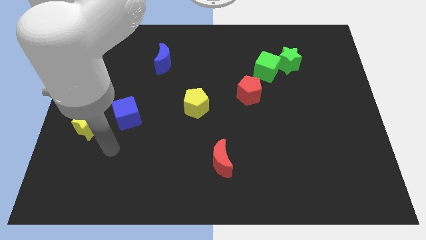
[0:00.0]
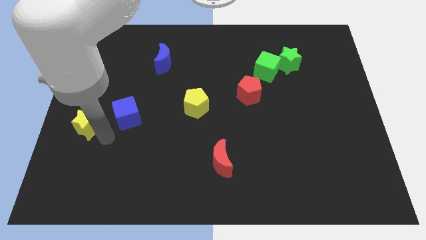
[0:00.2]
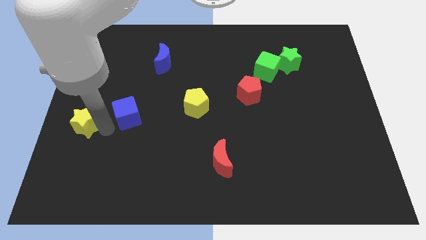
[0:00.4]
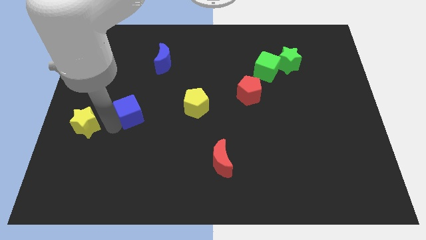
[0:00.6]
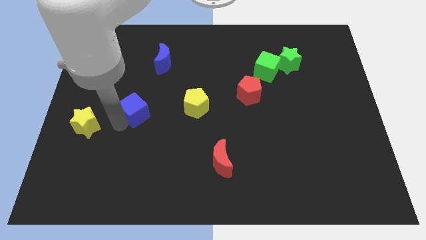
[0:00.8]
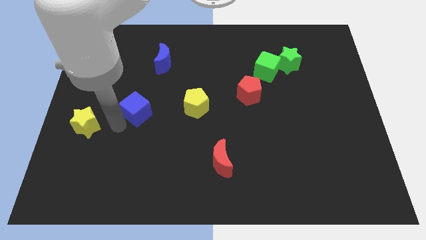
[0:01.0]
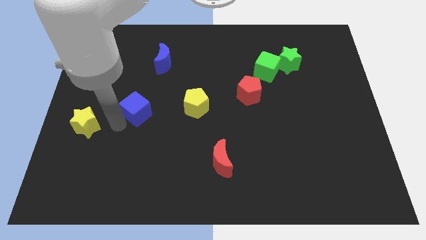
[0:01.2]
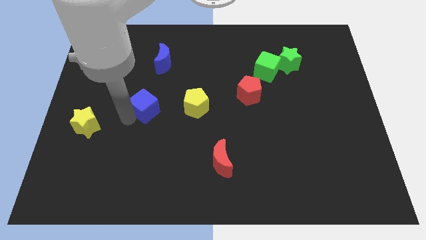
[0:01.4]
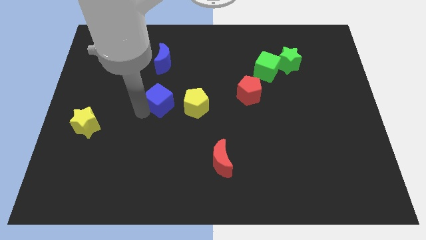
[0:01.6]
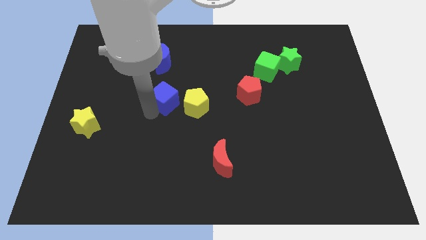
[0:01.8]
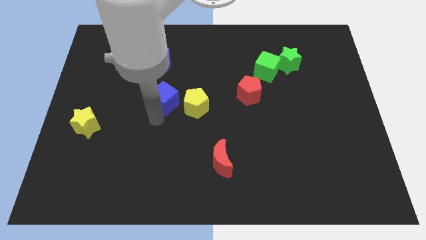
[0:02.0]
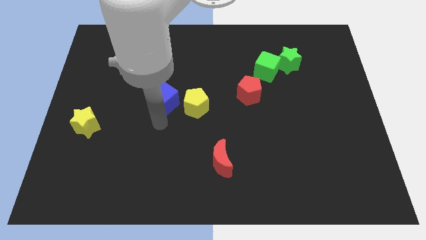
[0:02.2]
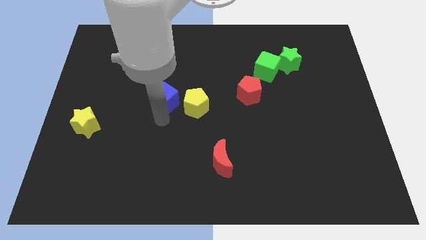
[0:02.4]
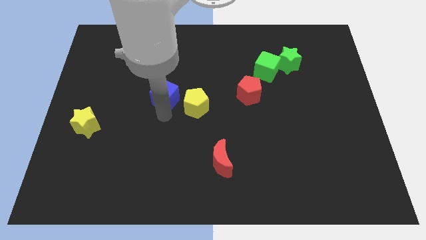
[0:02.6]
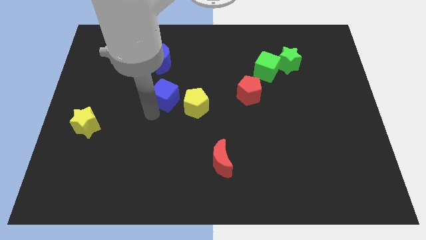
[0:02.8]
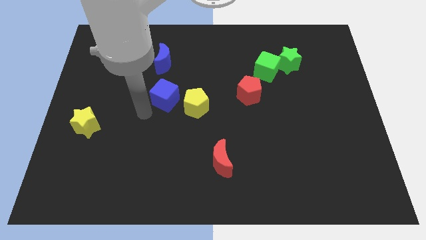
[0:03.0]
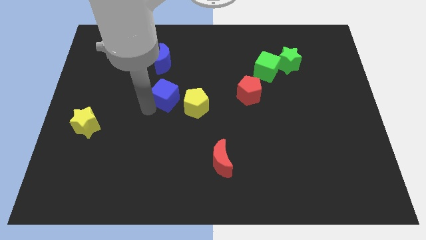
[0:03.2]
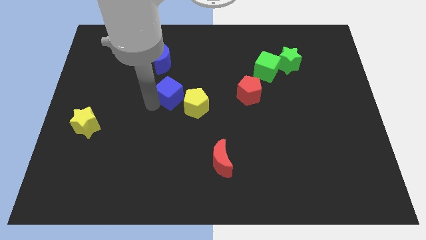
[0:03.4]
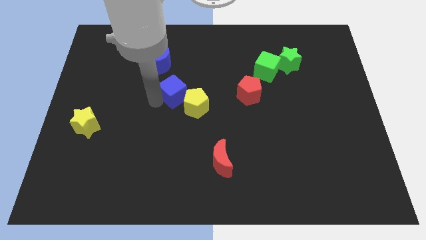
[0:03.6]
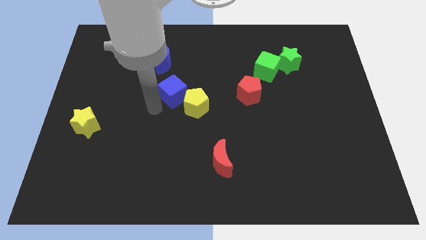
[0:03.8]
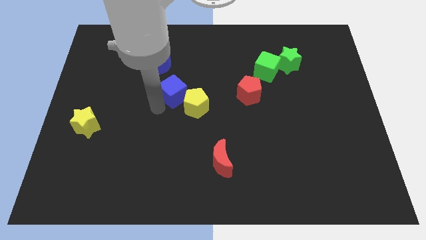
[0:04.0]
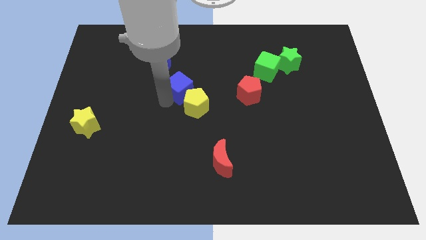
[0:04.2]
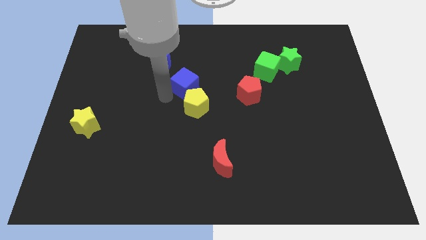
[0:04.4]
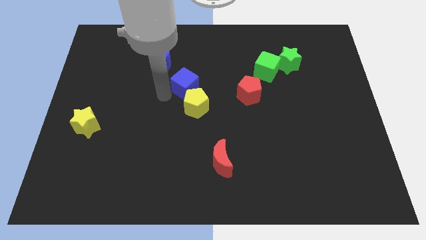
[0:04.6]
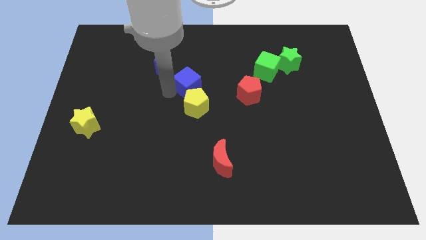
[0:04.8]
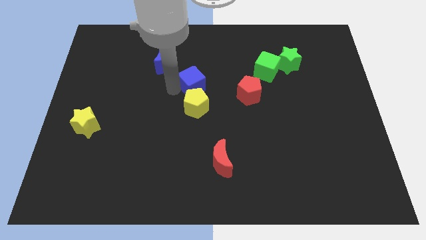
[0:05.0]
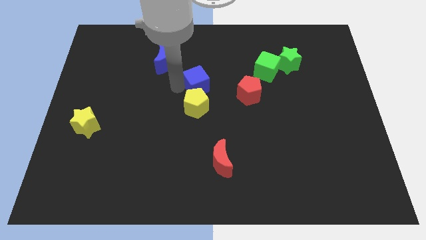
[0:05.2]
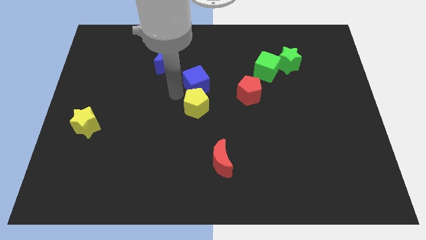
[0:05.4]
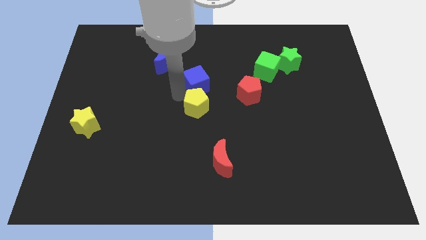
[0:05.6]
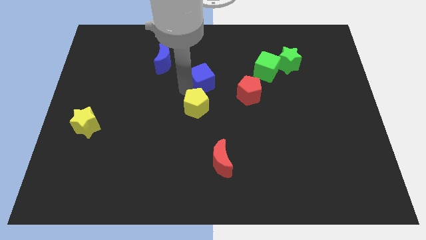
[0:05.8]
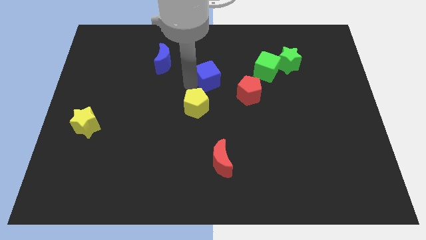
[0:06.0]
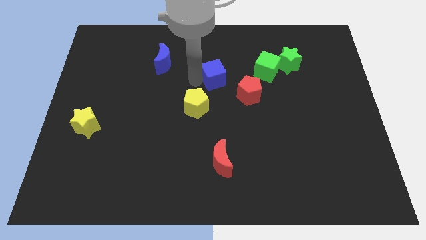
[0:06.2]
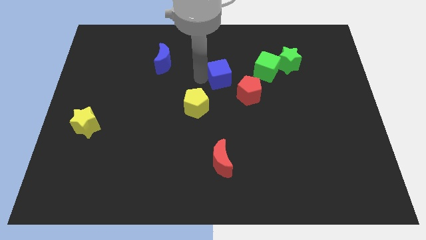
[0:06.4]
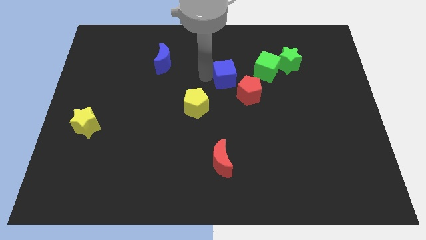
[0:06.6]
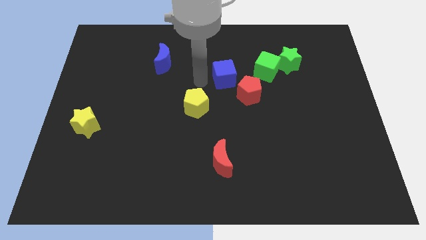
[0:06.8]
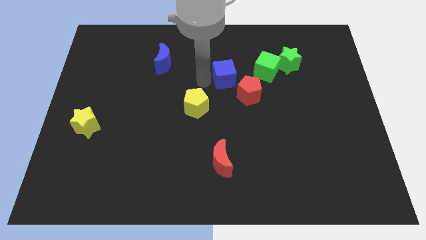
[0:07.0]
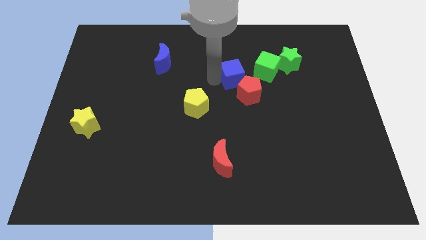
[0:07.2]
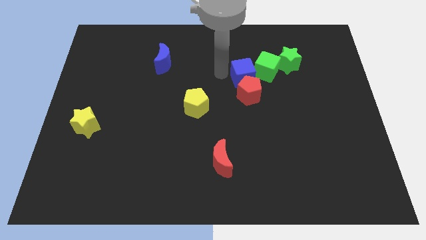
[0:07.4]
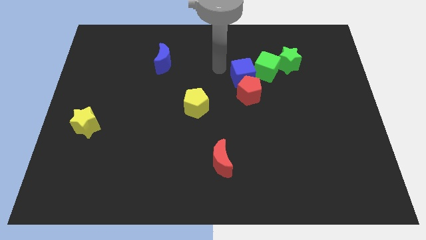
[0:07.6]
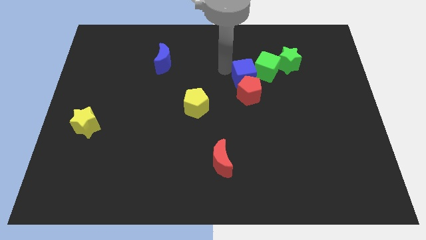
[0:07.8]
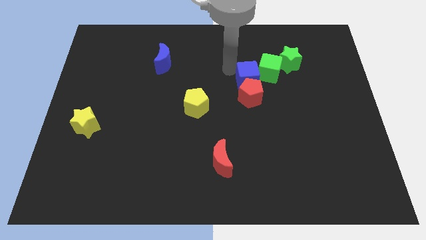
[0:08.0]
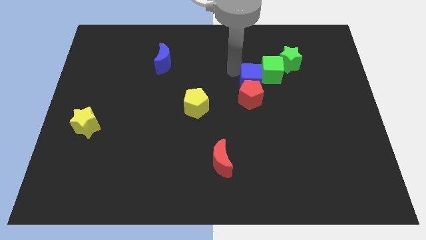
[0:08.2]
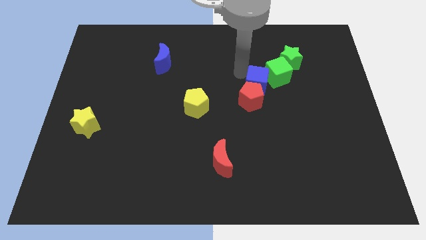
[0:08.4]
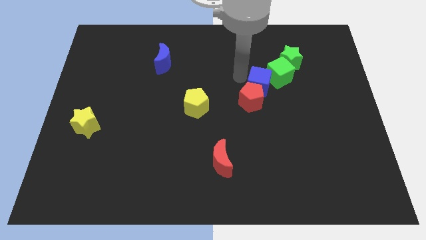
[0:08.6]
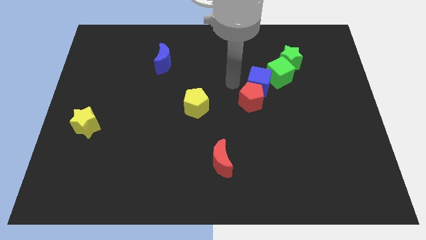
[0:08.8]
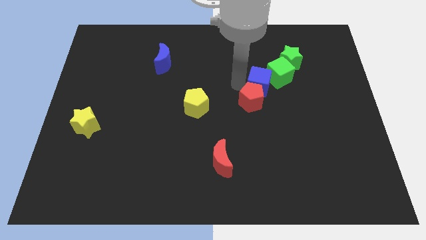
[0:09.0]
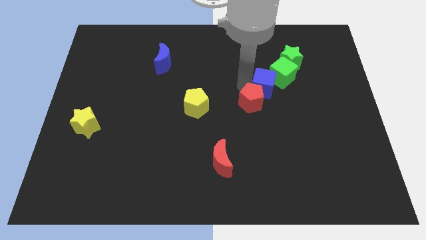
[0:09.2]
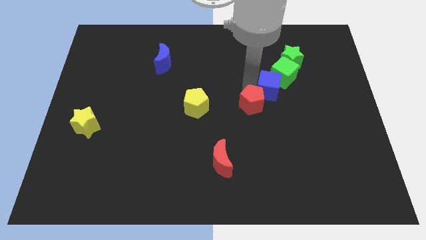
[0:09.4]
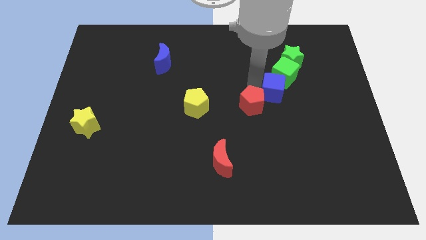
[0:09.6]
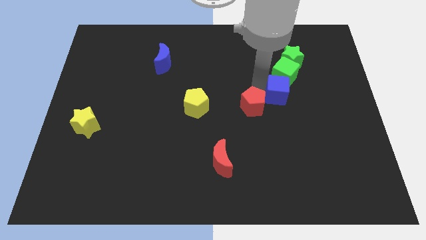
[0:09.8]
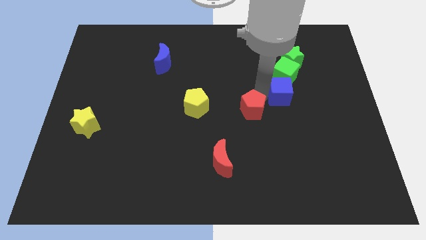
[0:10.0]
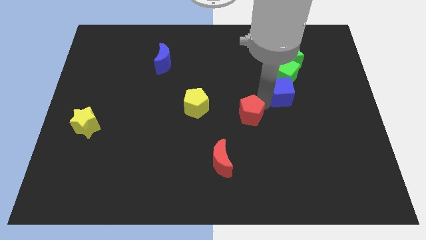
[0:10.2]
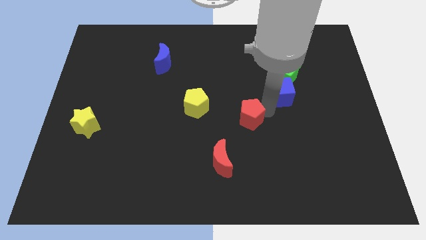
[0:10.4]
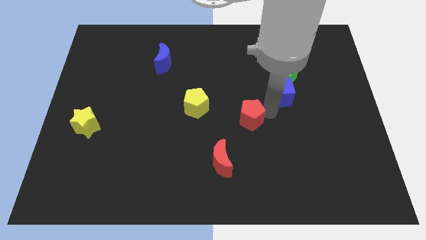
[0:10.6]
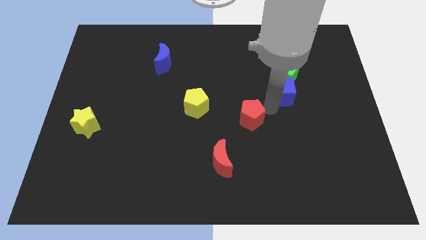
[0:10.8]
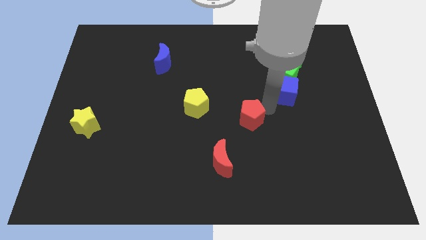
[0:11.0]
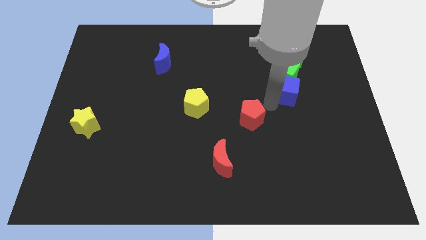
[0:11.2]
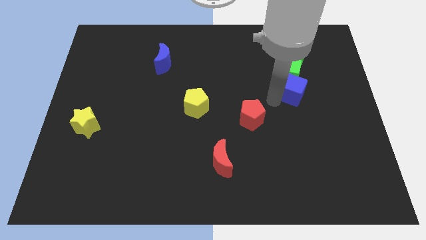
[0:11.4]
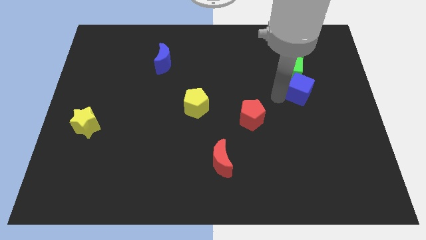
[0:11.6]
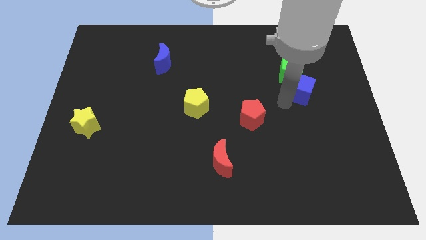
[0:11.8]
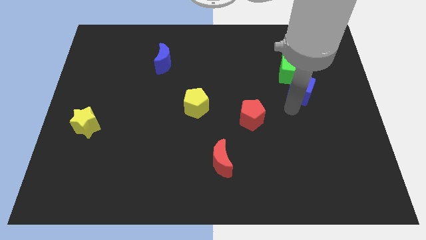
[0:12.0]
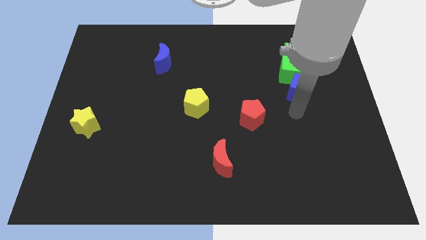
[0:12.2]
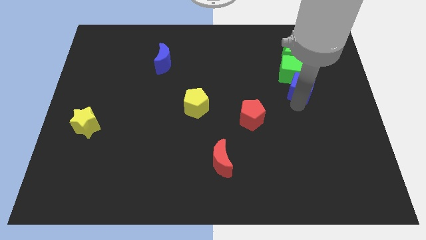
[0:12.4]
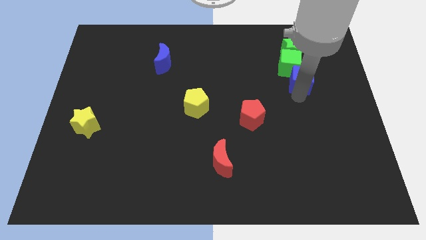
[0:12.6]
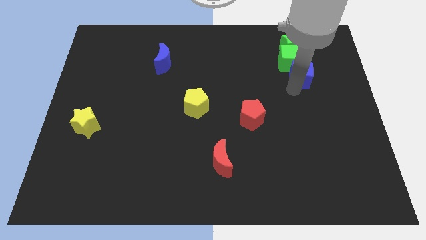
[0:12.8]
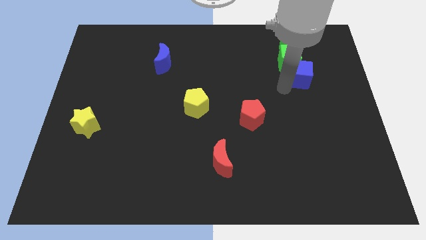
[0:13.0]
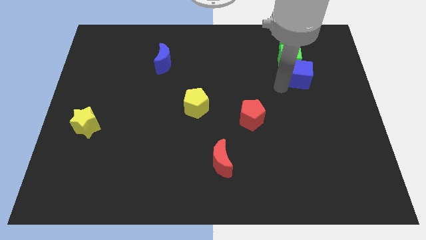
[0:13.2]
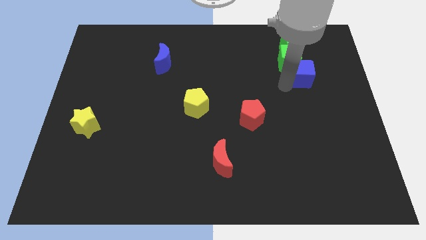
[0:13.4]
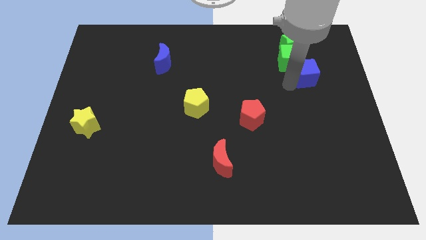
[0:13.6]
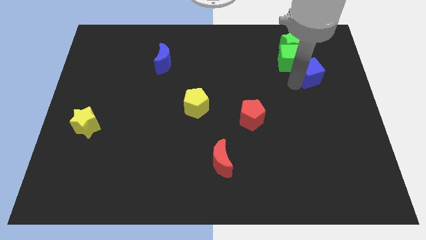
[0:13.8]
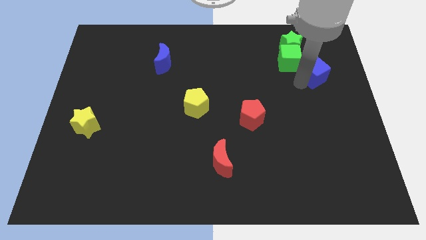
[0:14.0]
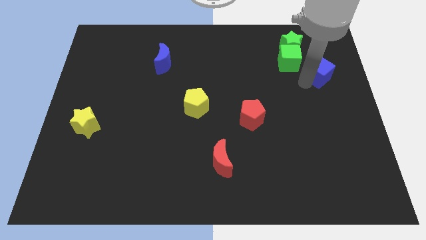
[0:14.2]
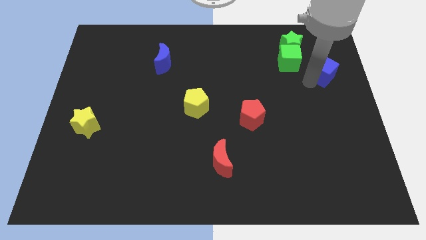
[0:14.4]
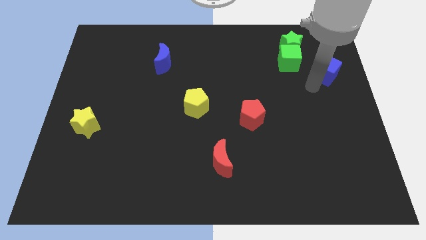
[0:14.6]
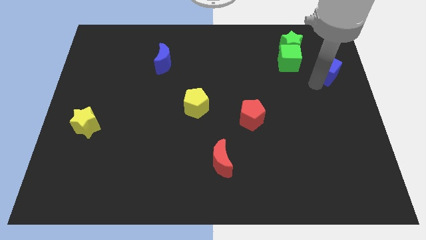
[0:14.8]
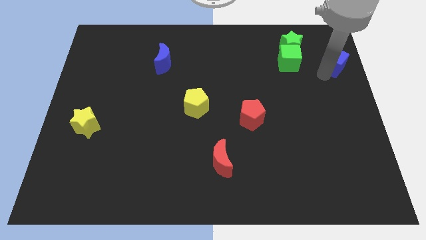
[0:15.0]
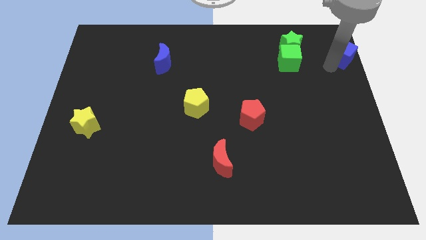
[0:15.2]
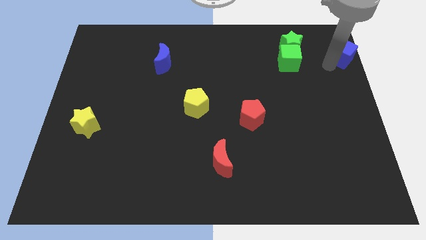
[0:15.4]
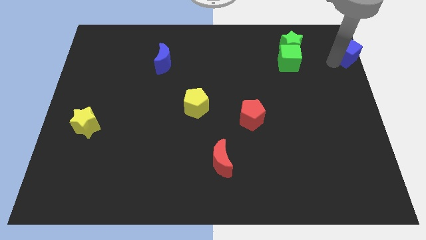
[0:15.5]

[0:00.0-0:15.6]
put the blue cube to the upper right corner
